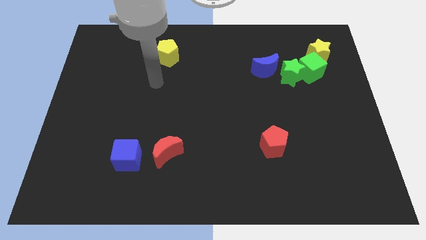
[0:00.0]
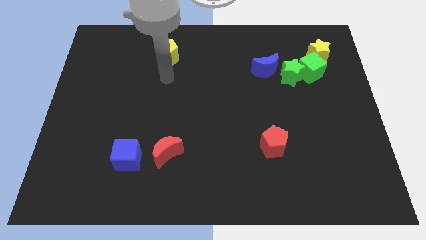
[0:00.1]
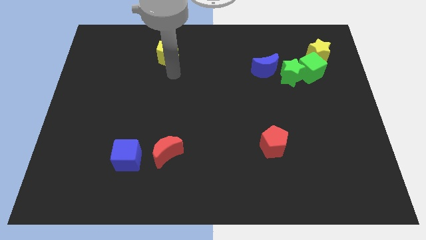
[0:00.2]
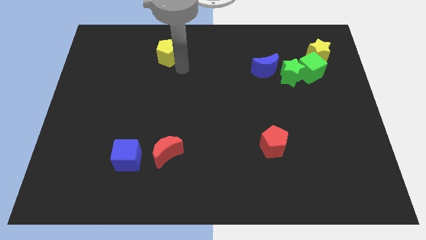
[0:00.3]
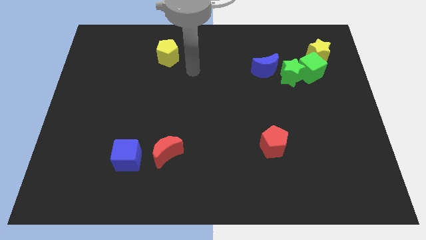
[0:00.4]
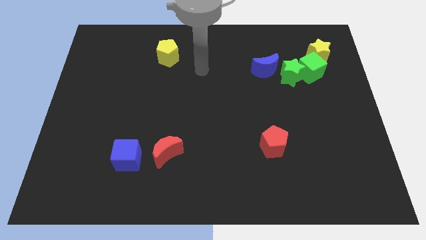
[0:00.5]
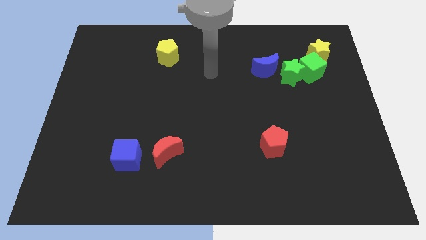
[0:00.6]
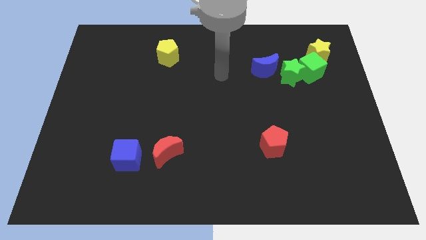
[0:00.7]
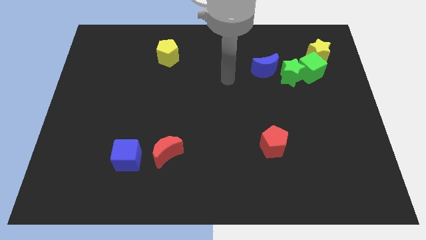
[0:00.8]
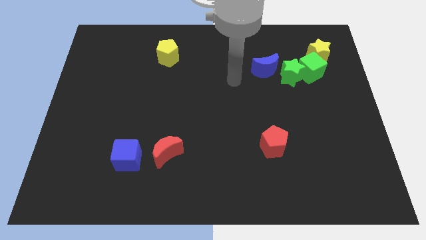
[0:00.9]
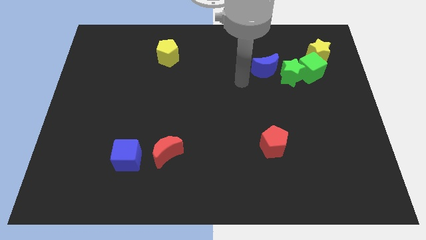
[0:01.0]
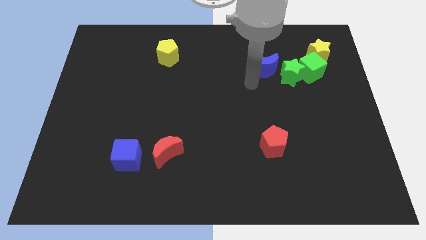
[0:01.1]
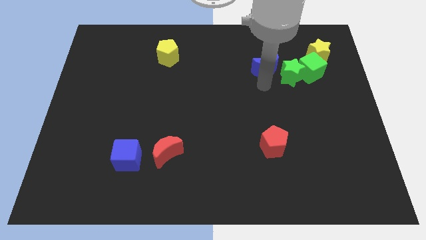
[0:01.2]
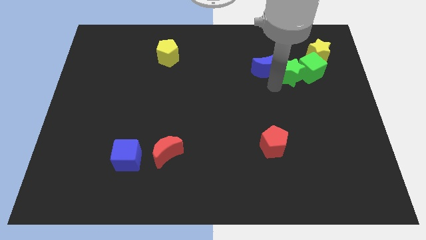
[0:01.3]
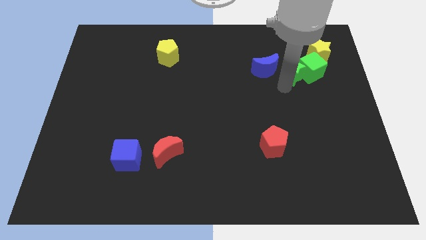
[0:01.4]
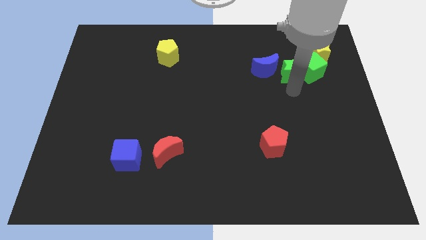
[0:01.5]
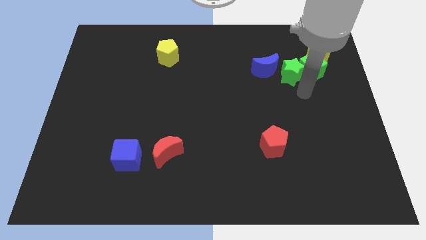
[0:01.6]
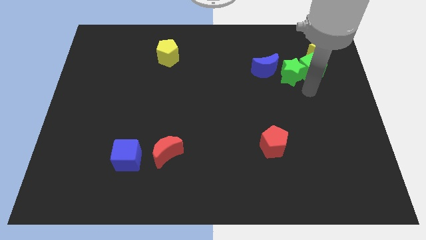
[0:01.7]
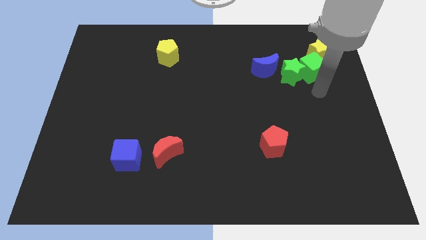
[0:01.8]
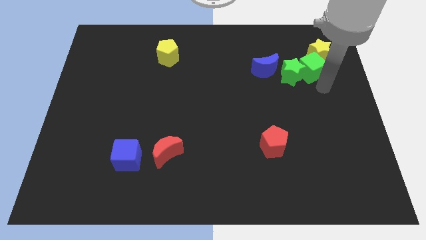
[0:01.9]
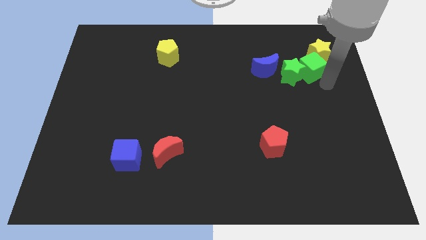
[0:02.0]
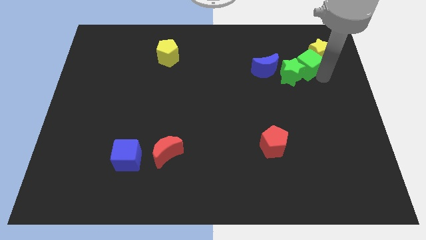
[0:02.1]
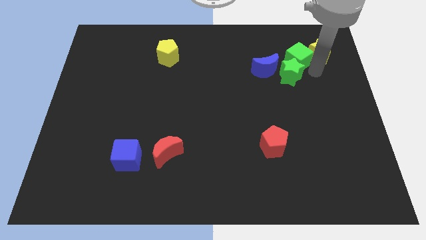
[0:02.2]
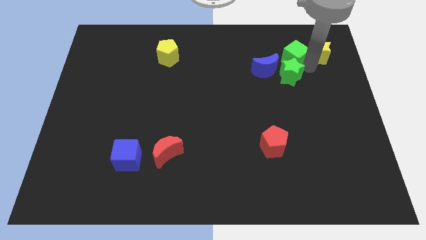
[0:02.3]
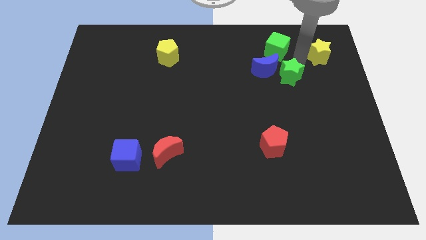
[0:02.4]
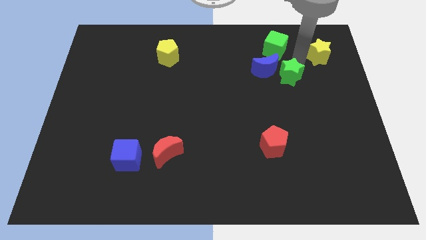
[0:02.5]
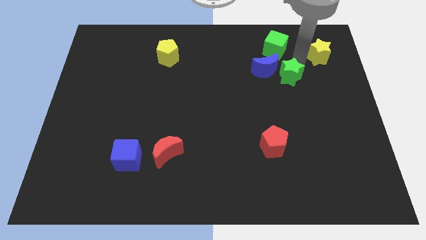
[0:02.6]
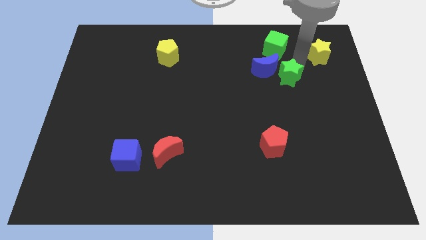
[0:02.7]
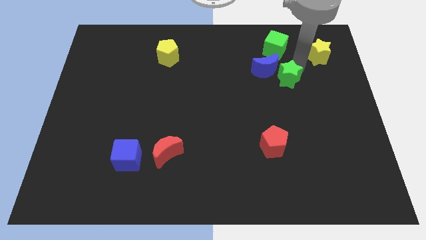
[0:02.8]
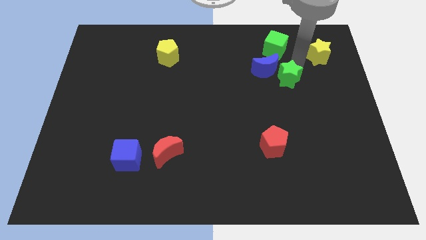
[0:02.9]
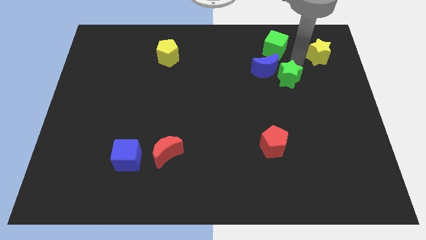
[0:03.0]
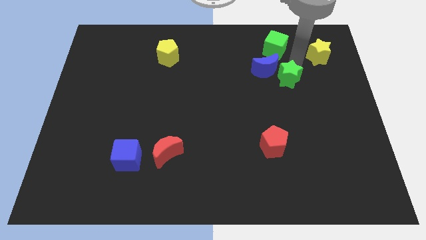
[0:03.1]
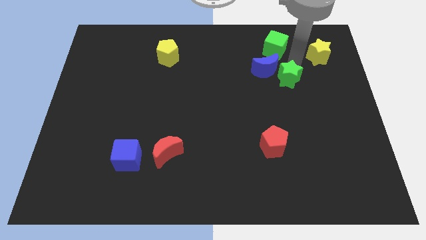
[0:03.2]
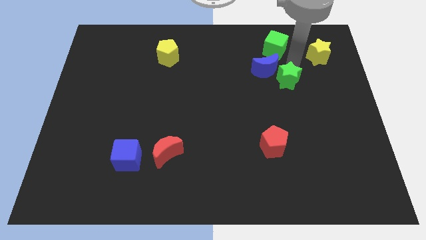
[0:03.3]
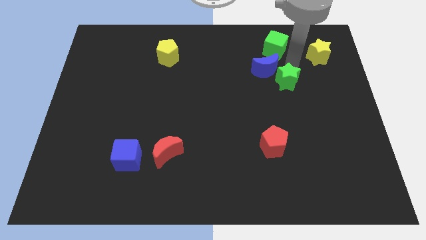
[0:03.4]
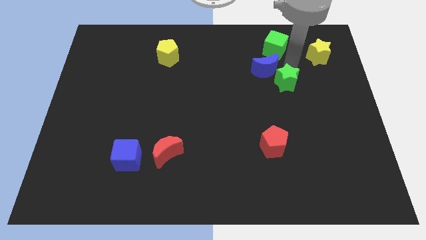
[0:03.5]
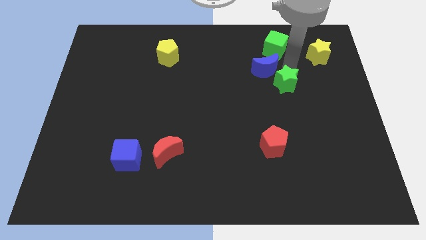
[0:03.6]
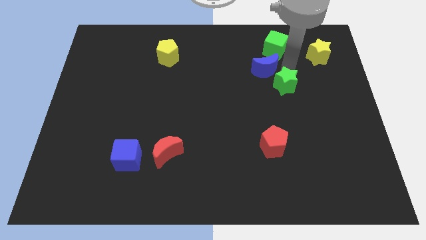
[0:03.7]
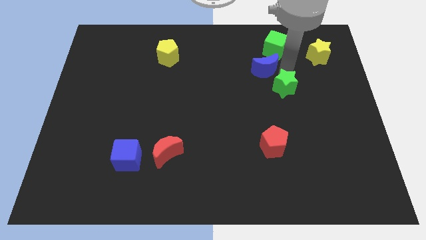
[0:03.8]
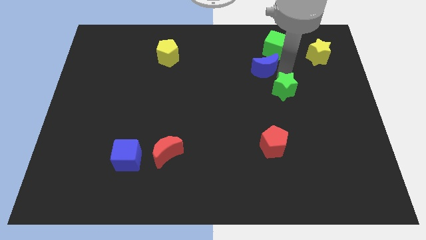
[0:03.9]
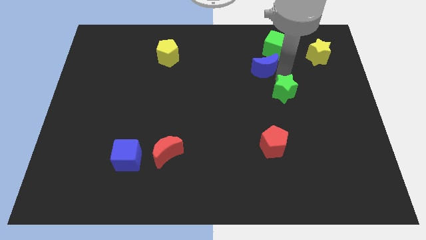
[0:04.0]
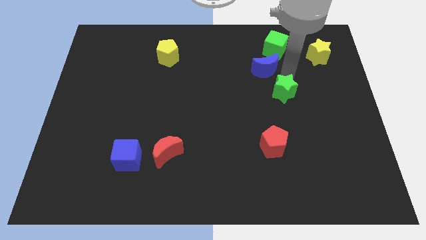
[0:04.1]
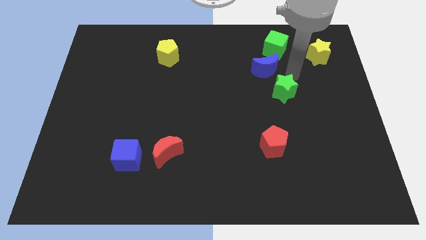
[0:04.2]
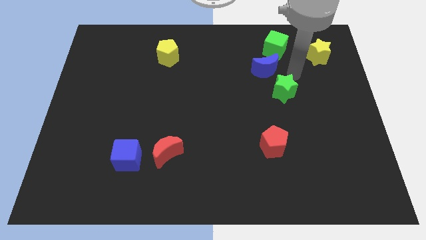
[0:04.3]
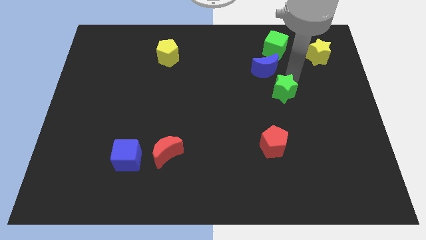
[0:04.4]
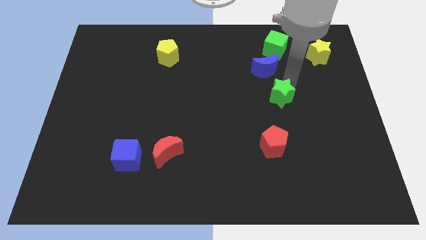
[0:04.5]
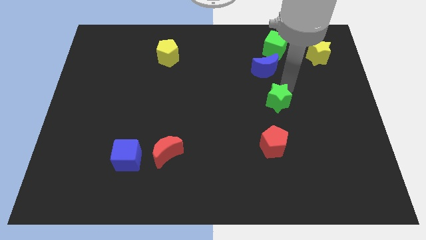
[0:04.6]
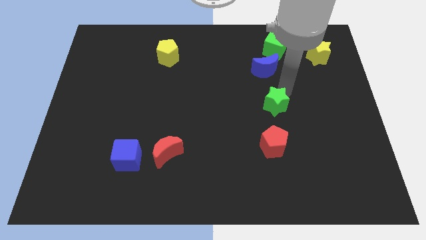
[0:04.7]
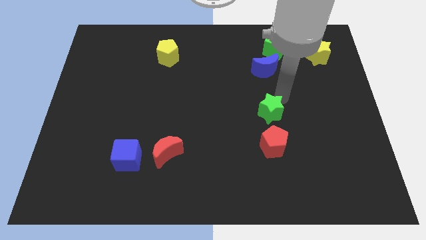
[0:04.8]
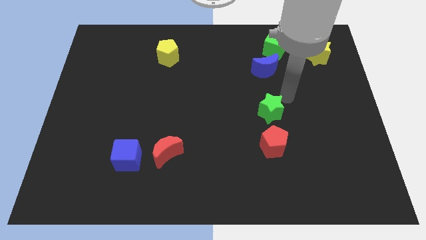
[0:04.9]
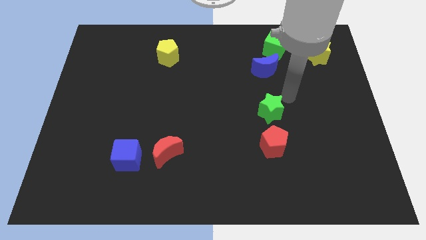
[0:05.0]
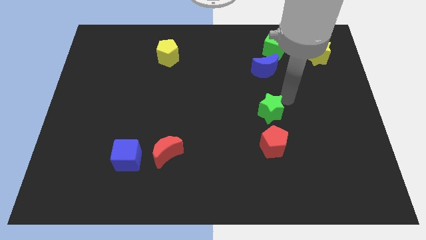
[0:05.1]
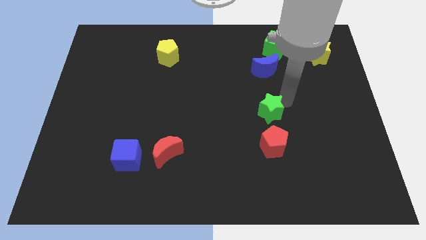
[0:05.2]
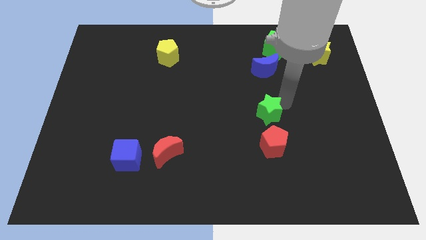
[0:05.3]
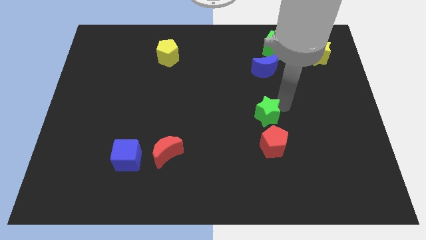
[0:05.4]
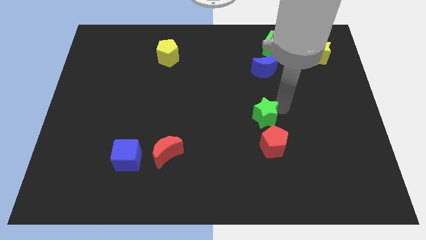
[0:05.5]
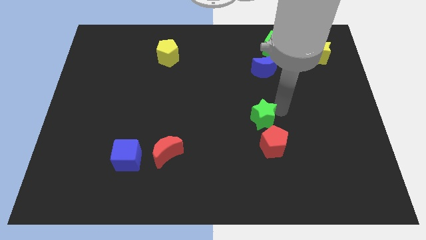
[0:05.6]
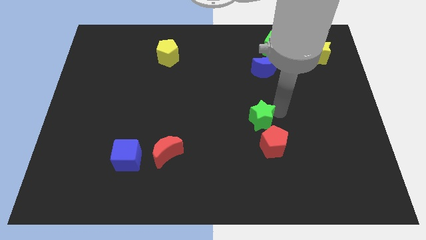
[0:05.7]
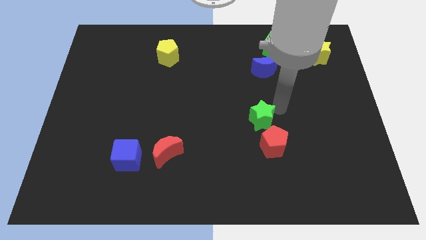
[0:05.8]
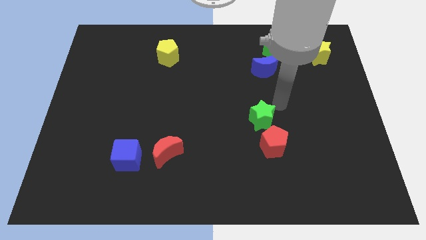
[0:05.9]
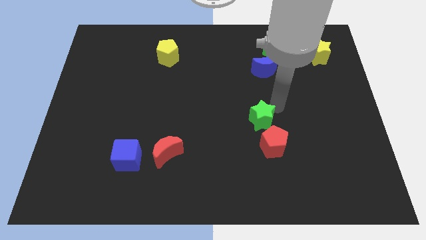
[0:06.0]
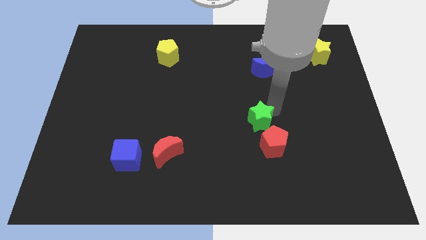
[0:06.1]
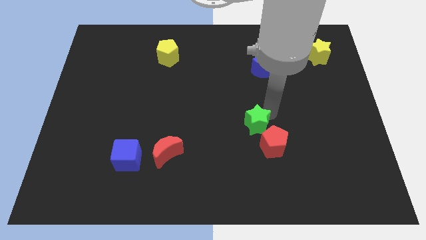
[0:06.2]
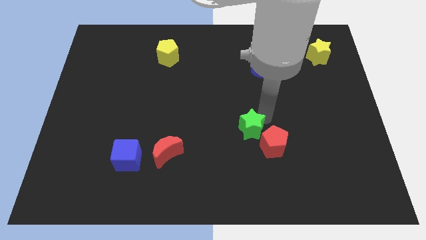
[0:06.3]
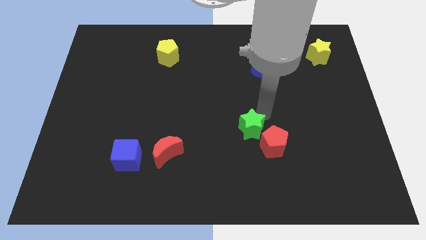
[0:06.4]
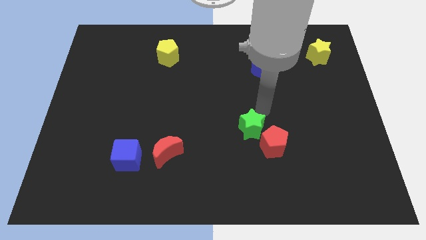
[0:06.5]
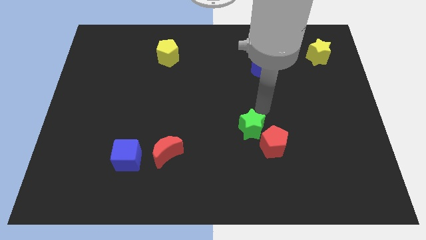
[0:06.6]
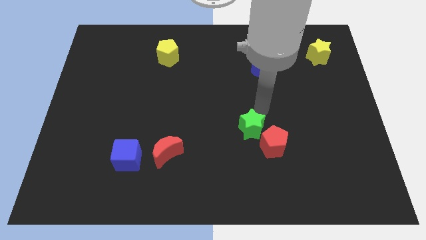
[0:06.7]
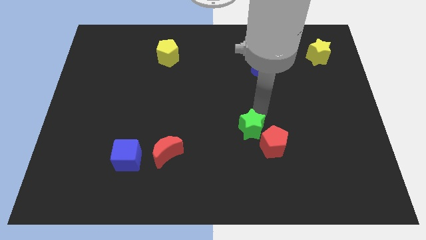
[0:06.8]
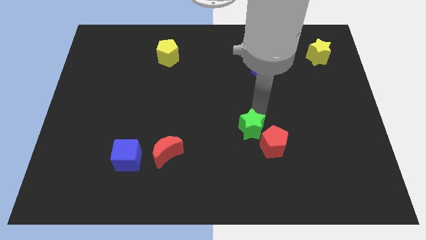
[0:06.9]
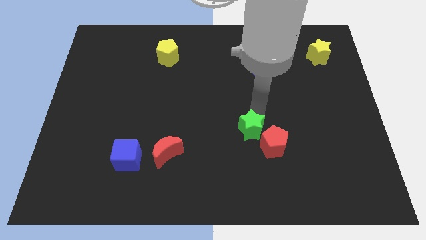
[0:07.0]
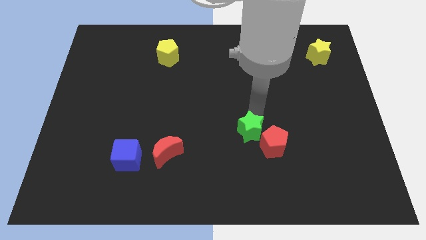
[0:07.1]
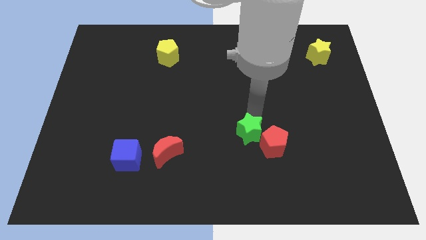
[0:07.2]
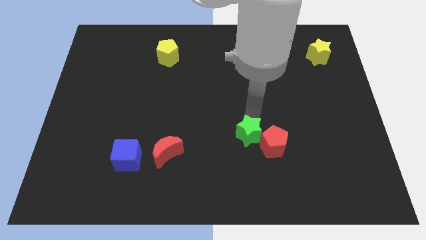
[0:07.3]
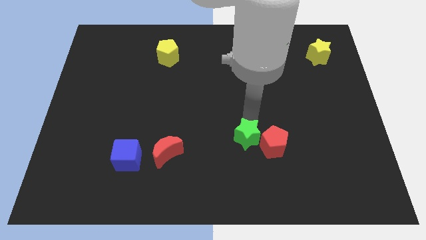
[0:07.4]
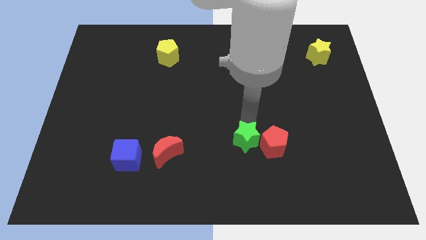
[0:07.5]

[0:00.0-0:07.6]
put the green star to the bottom left of the red pentagon

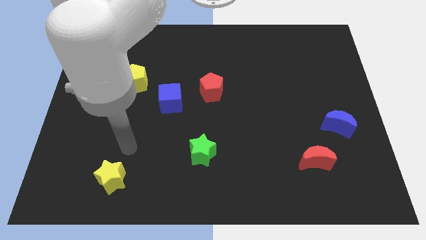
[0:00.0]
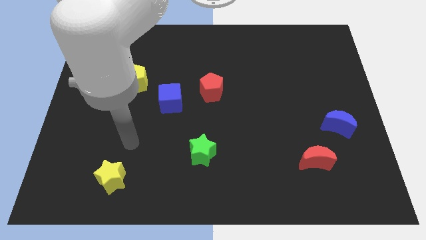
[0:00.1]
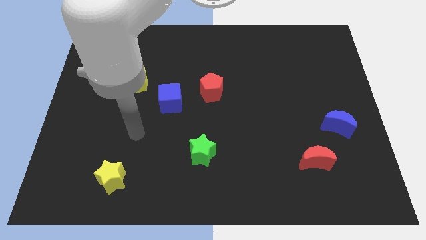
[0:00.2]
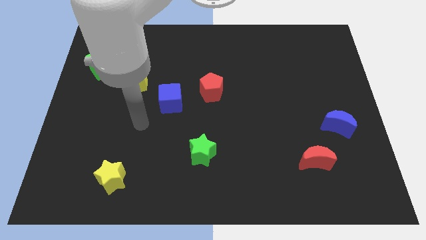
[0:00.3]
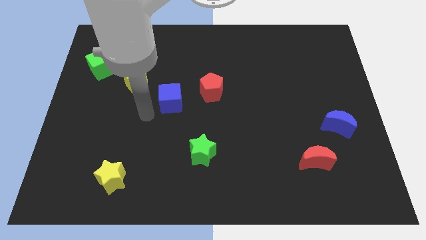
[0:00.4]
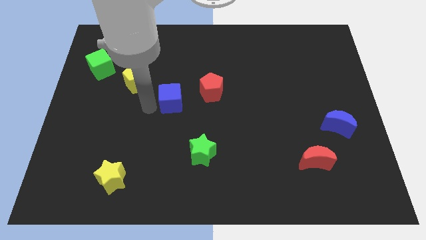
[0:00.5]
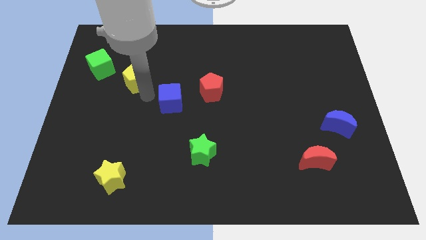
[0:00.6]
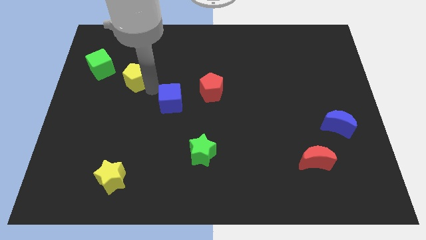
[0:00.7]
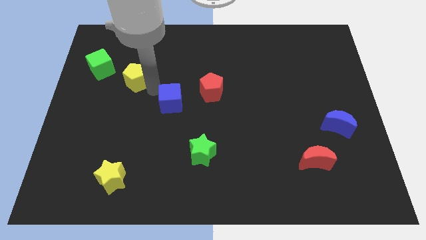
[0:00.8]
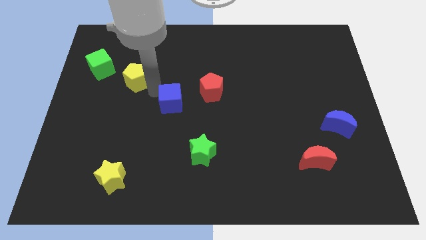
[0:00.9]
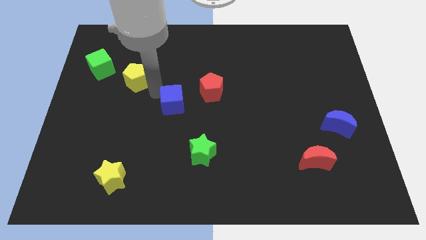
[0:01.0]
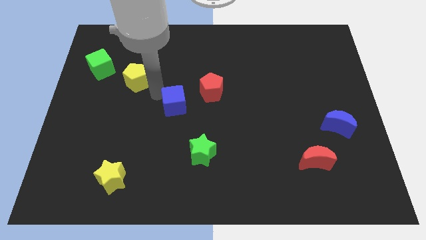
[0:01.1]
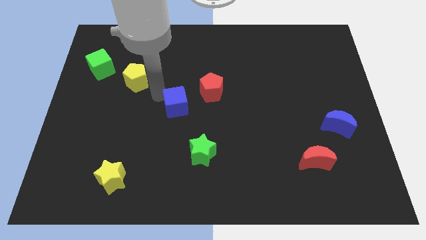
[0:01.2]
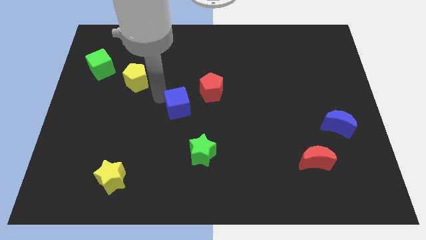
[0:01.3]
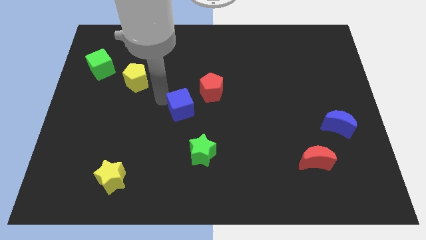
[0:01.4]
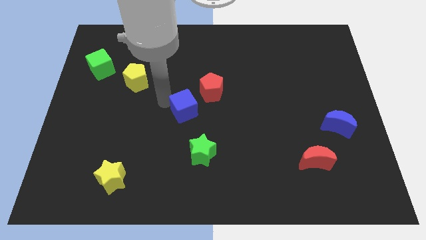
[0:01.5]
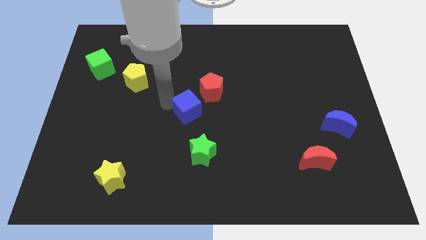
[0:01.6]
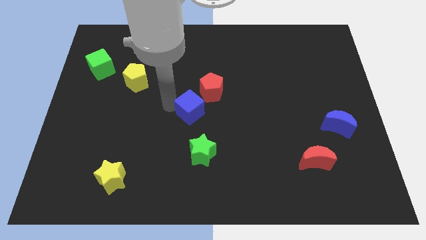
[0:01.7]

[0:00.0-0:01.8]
put the blue cube below the red pentagon
